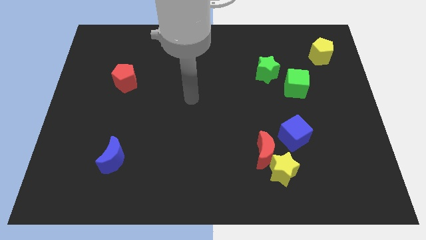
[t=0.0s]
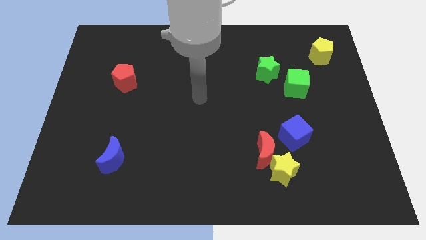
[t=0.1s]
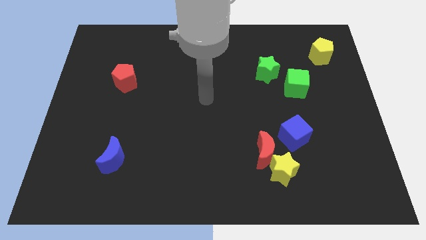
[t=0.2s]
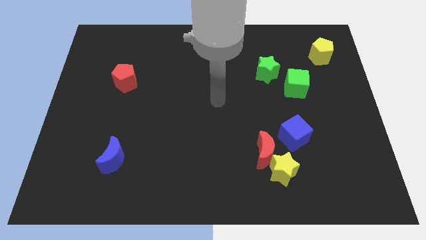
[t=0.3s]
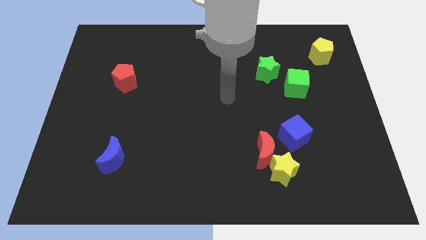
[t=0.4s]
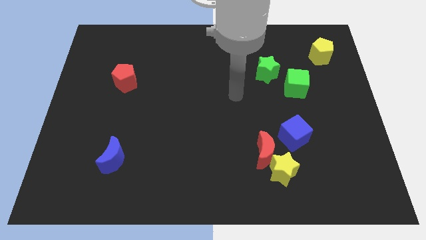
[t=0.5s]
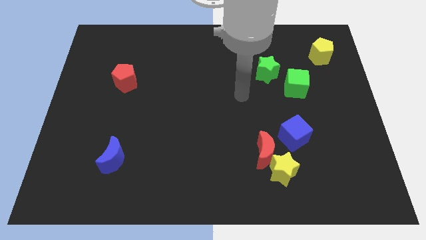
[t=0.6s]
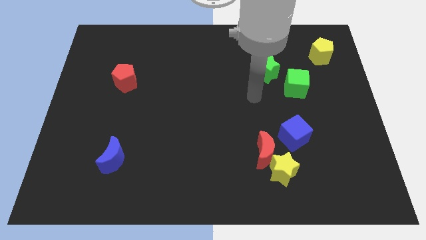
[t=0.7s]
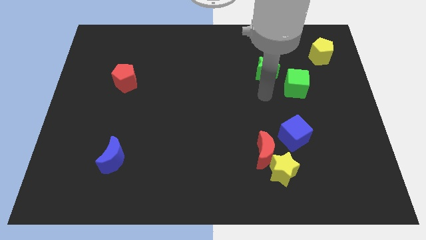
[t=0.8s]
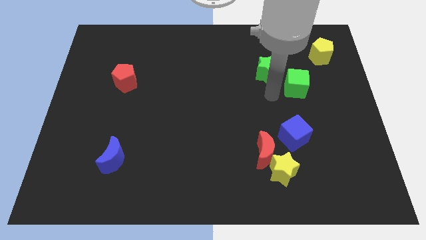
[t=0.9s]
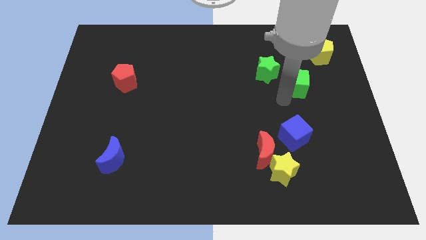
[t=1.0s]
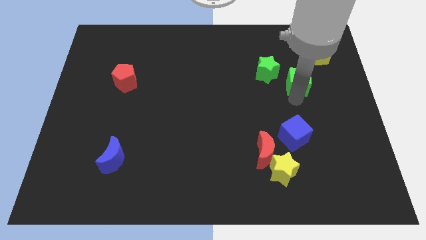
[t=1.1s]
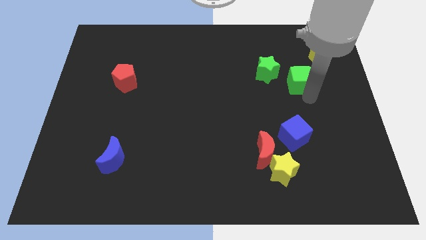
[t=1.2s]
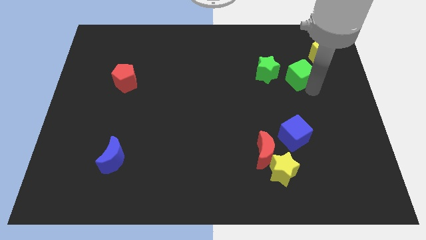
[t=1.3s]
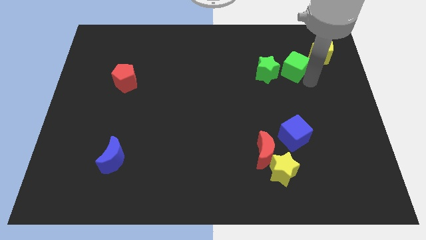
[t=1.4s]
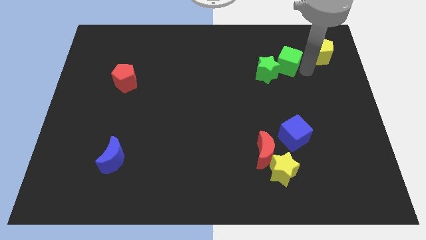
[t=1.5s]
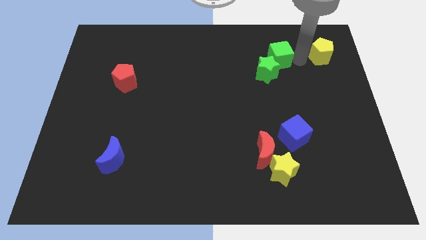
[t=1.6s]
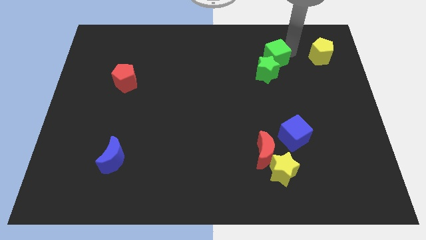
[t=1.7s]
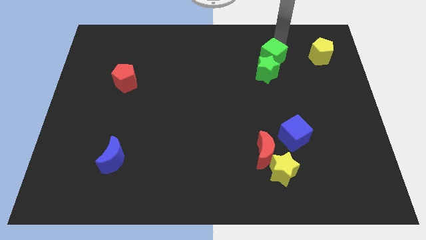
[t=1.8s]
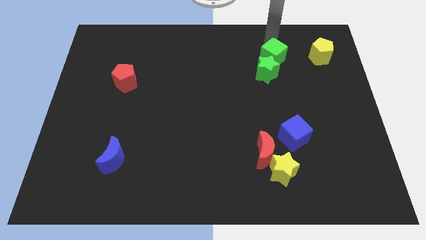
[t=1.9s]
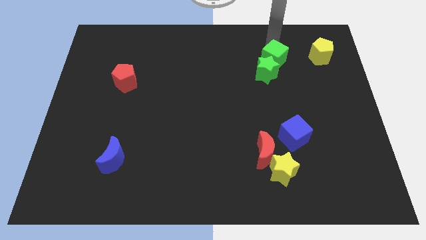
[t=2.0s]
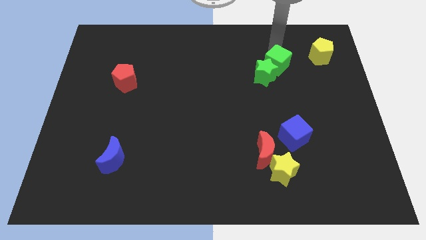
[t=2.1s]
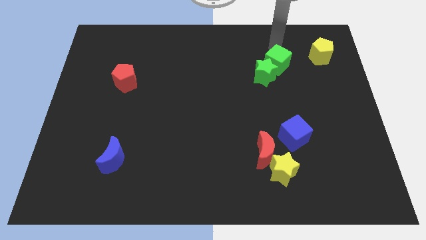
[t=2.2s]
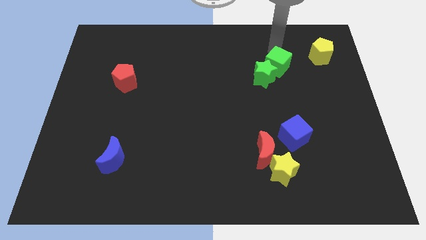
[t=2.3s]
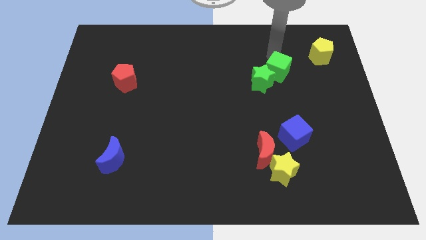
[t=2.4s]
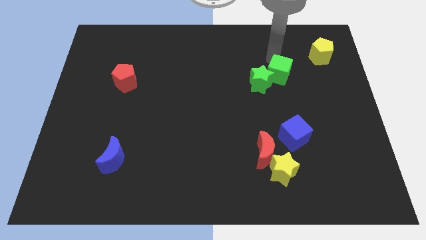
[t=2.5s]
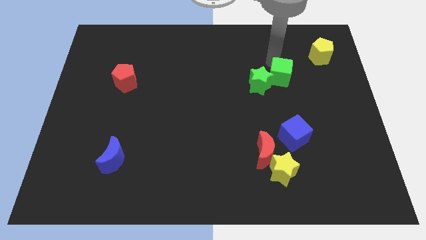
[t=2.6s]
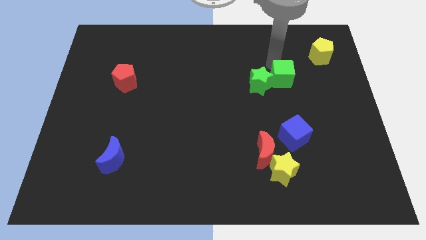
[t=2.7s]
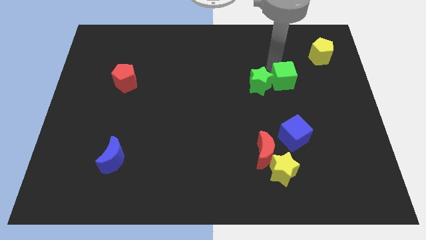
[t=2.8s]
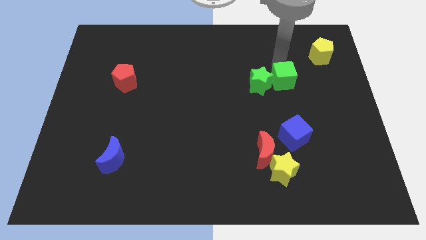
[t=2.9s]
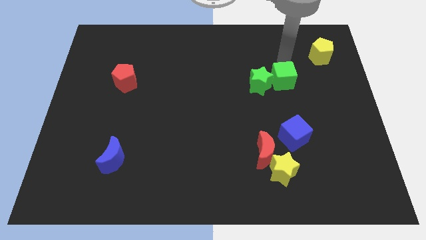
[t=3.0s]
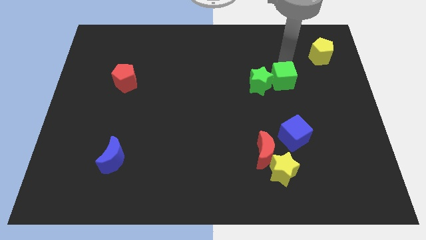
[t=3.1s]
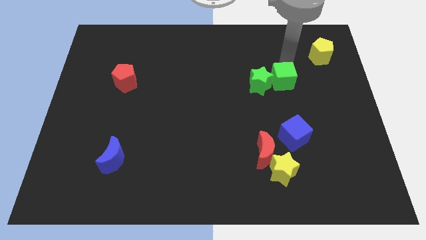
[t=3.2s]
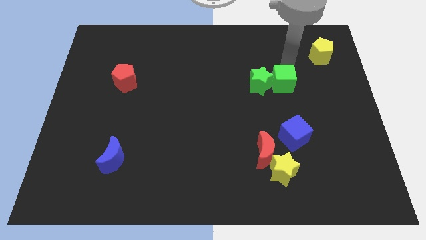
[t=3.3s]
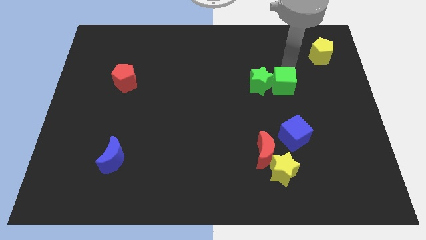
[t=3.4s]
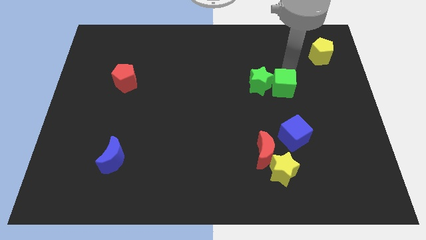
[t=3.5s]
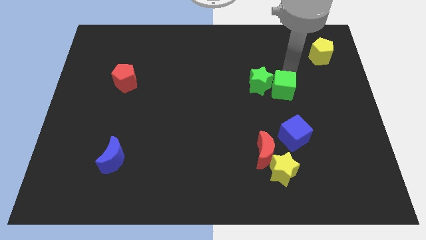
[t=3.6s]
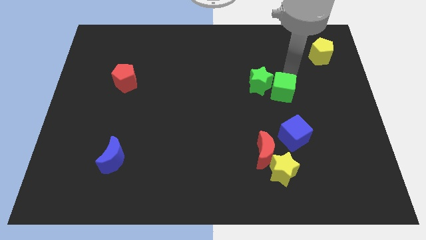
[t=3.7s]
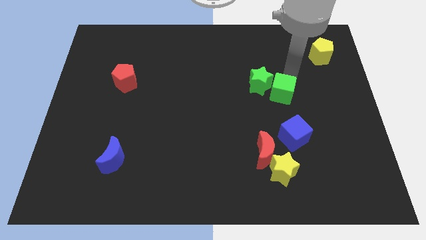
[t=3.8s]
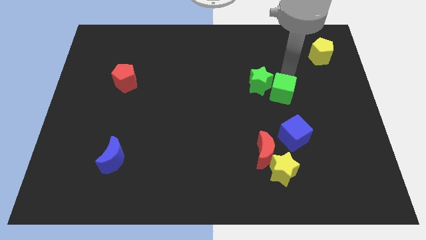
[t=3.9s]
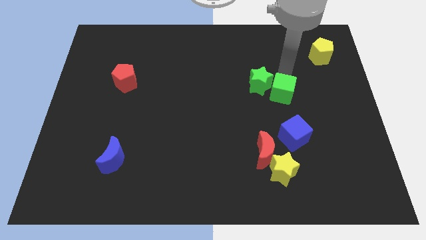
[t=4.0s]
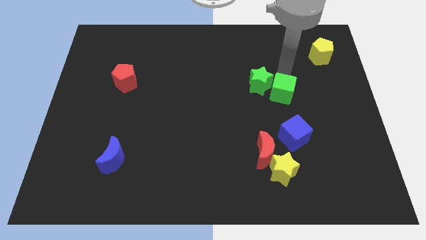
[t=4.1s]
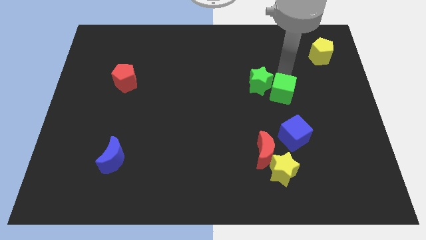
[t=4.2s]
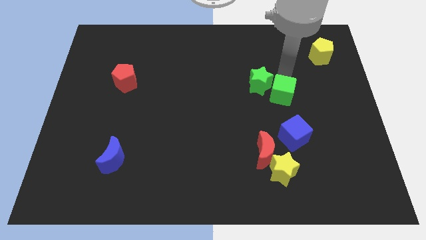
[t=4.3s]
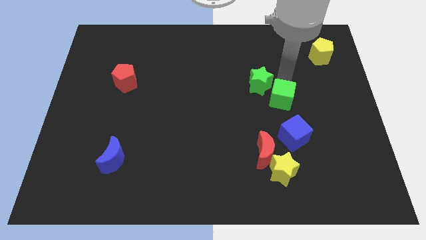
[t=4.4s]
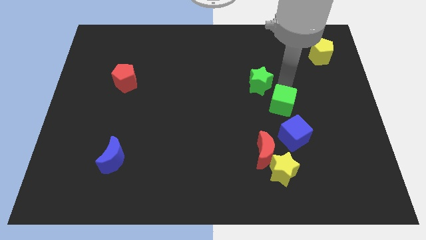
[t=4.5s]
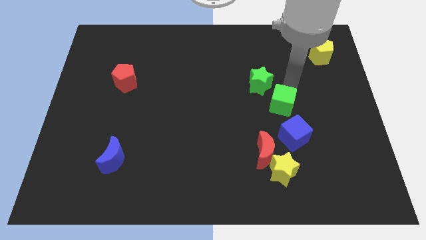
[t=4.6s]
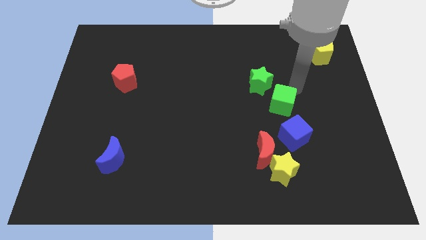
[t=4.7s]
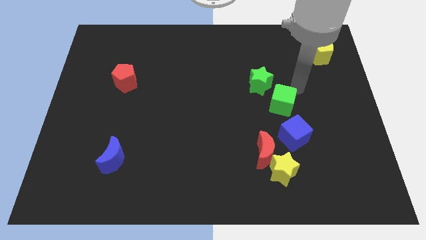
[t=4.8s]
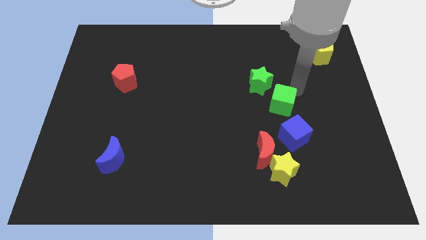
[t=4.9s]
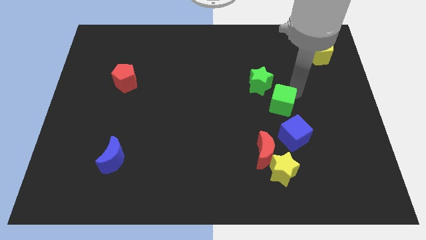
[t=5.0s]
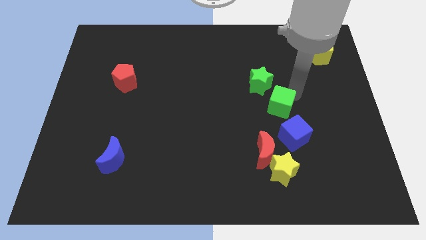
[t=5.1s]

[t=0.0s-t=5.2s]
slide the green cube diagonally up and to the left of the blue cube

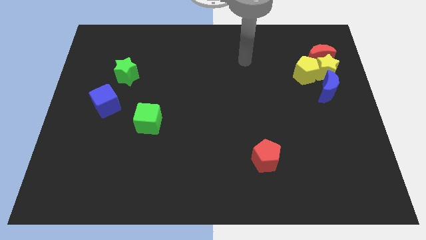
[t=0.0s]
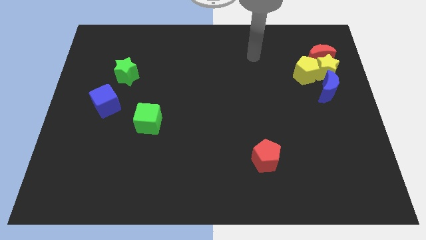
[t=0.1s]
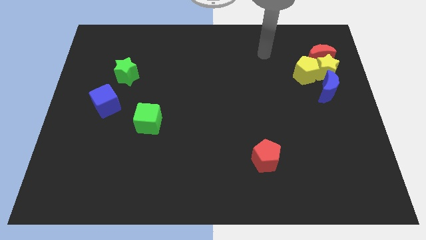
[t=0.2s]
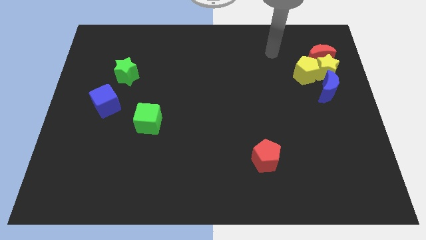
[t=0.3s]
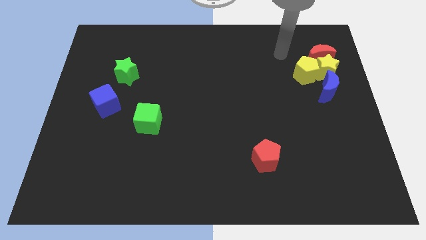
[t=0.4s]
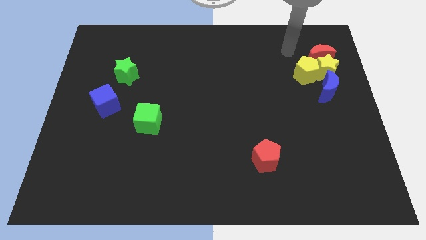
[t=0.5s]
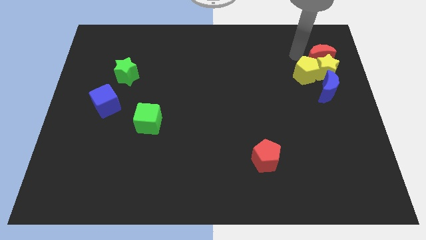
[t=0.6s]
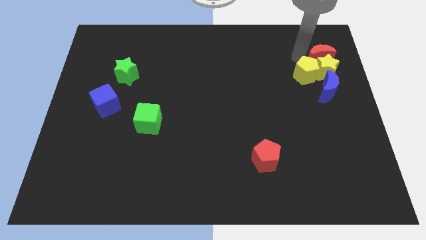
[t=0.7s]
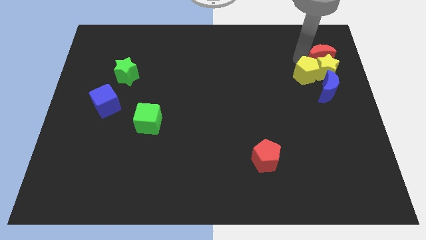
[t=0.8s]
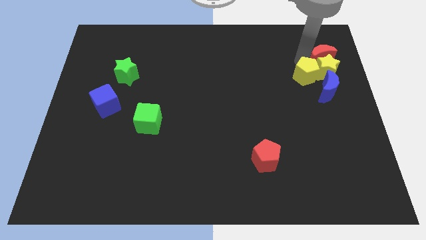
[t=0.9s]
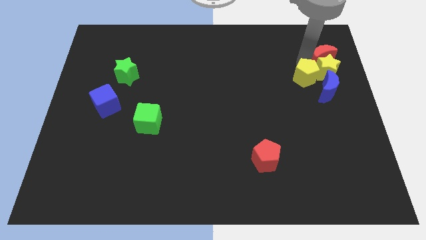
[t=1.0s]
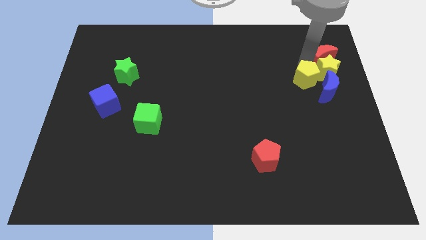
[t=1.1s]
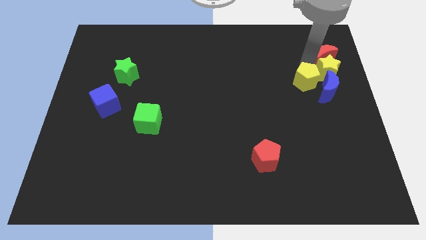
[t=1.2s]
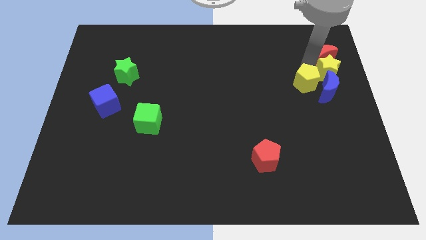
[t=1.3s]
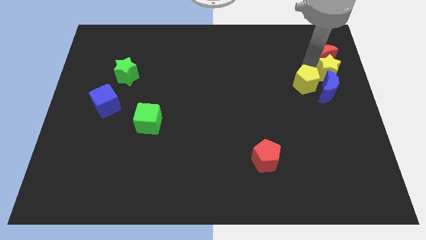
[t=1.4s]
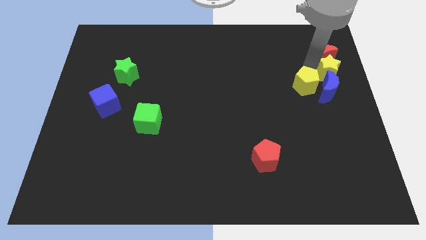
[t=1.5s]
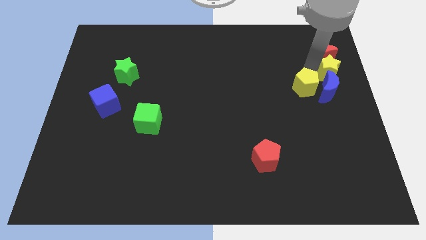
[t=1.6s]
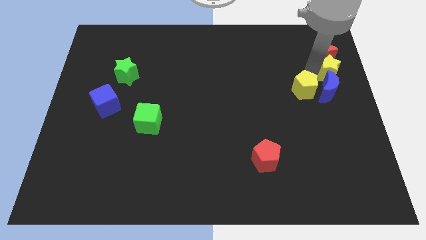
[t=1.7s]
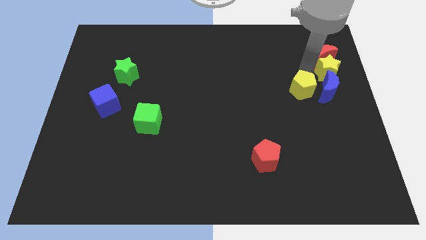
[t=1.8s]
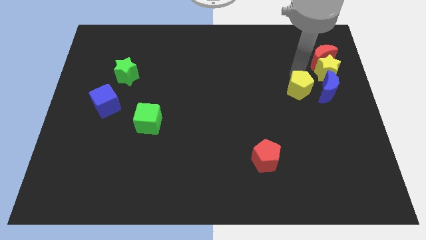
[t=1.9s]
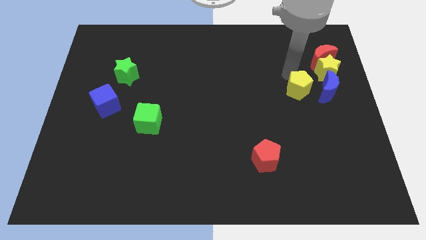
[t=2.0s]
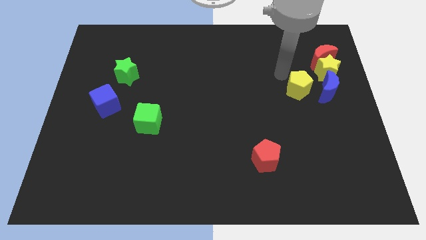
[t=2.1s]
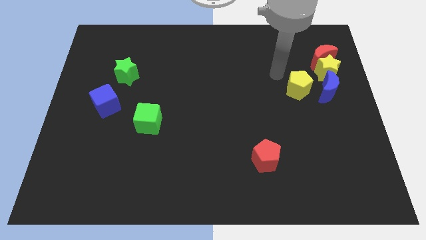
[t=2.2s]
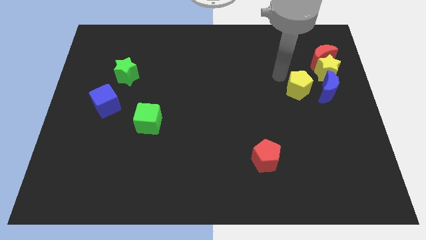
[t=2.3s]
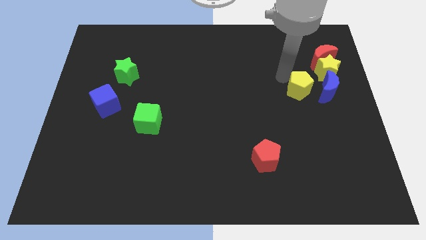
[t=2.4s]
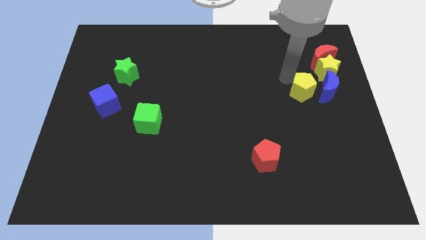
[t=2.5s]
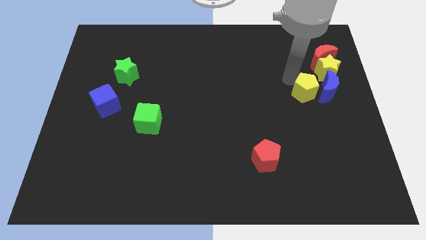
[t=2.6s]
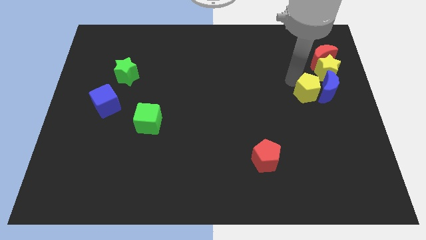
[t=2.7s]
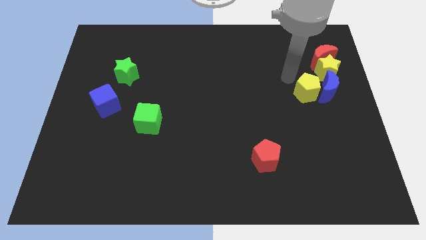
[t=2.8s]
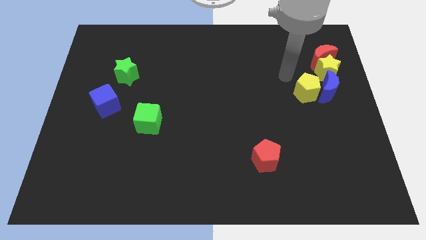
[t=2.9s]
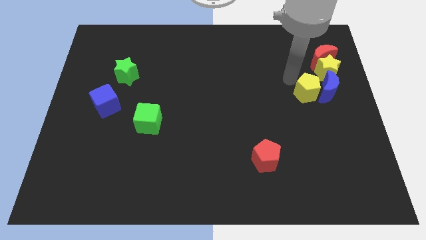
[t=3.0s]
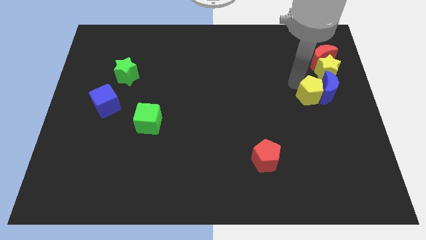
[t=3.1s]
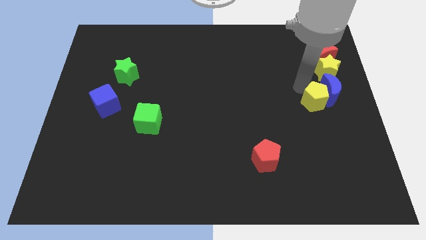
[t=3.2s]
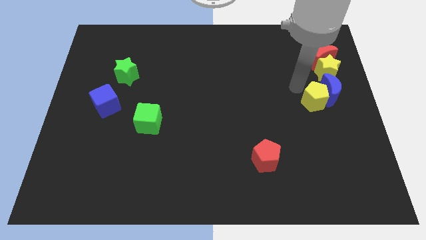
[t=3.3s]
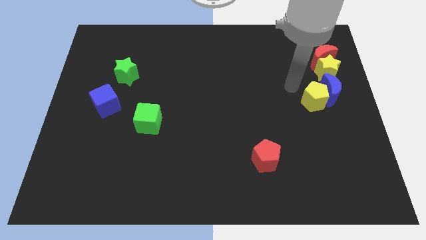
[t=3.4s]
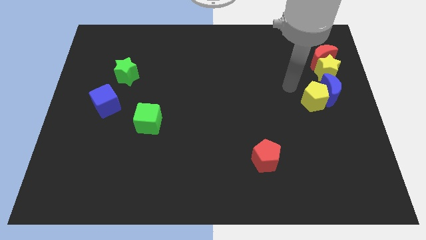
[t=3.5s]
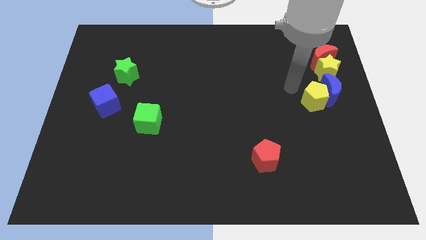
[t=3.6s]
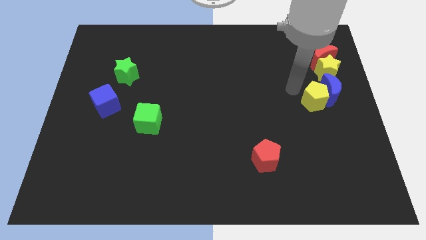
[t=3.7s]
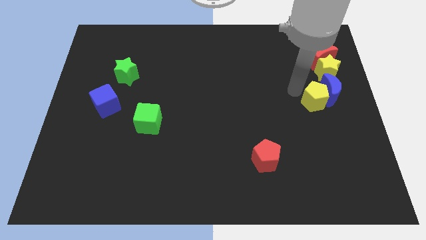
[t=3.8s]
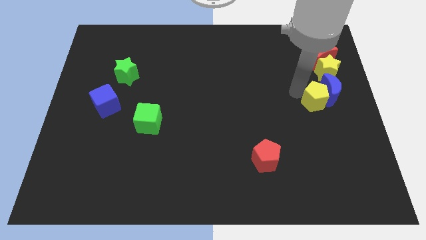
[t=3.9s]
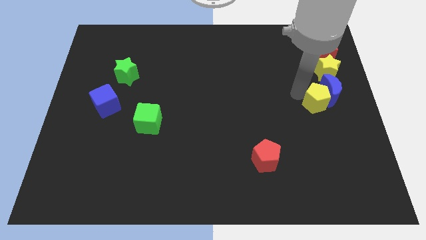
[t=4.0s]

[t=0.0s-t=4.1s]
push the yellow pentagon to the bottom of the blue moon
